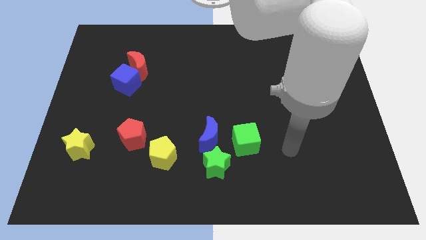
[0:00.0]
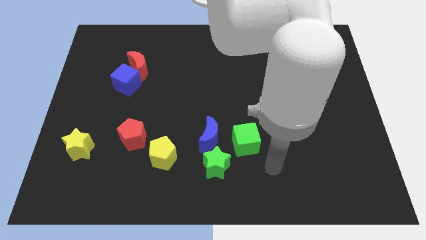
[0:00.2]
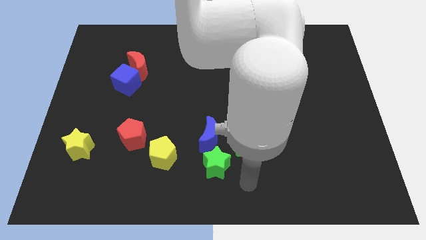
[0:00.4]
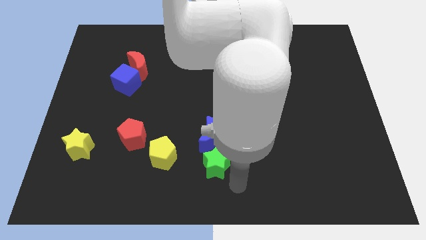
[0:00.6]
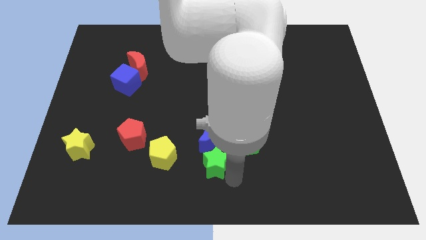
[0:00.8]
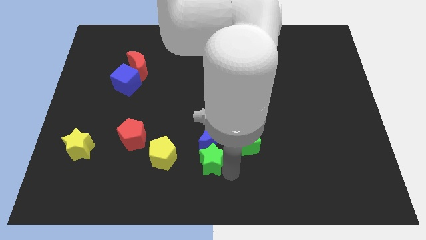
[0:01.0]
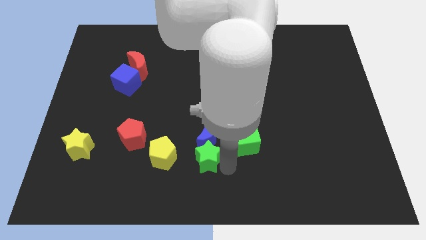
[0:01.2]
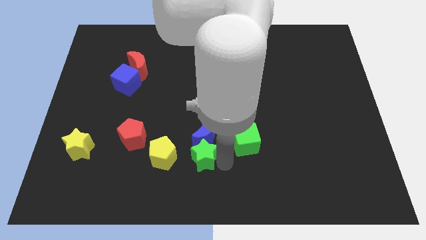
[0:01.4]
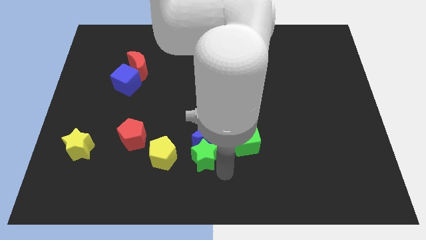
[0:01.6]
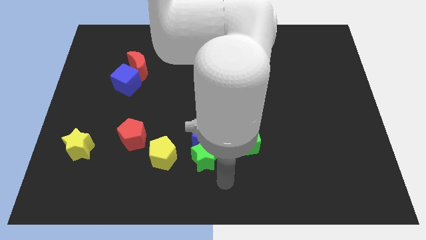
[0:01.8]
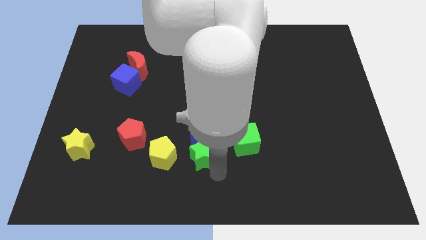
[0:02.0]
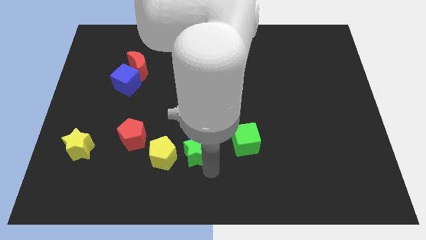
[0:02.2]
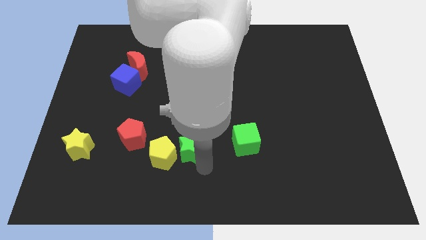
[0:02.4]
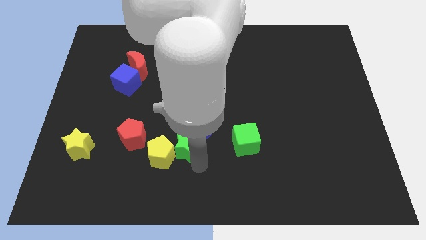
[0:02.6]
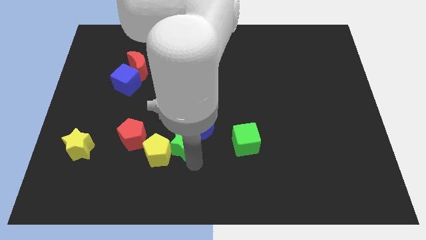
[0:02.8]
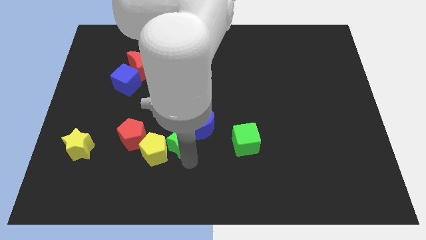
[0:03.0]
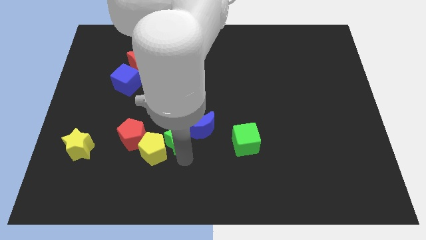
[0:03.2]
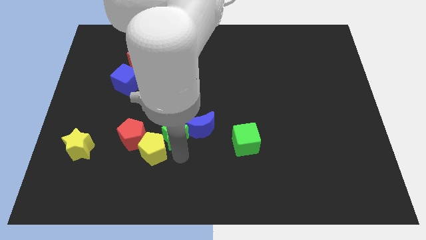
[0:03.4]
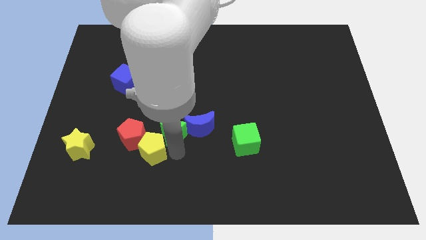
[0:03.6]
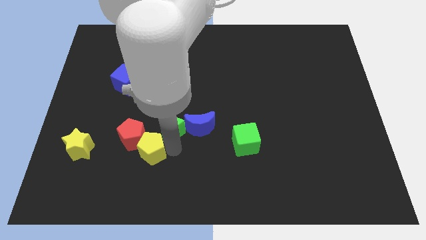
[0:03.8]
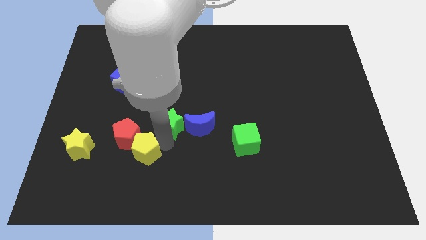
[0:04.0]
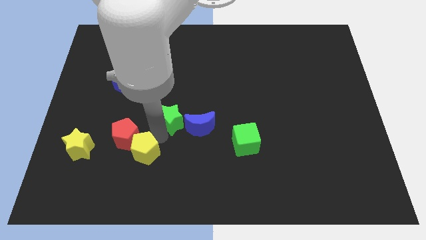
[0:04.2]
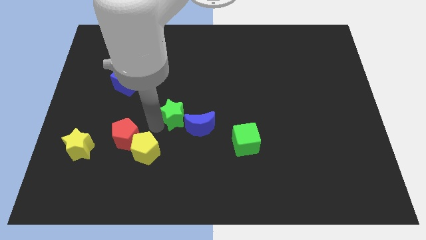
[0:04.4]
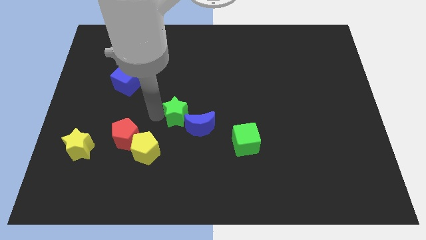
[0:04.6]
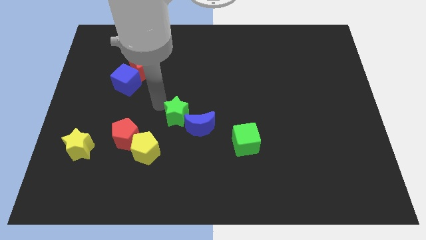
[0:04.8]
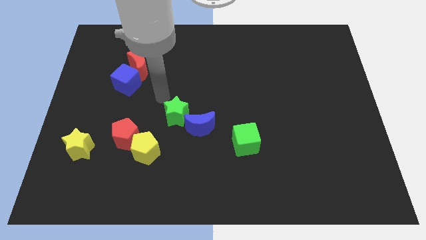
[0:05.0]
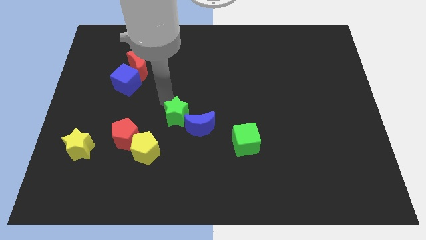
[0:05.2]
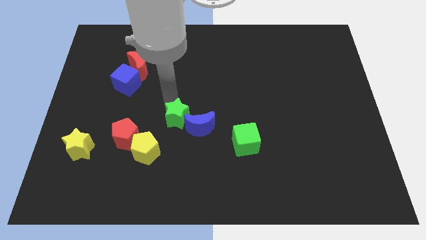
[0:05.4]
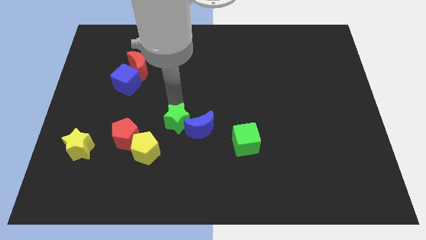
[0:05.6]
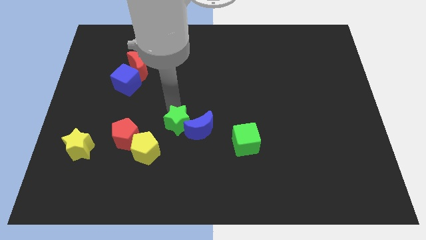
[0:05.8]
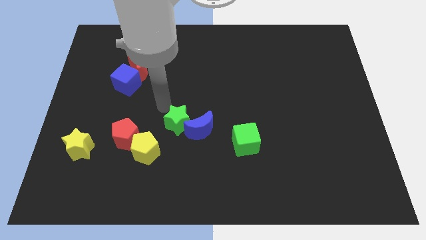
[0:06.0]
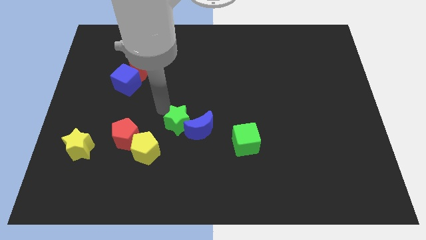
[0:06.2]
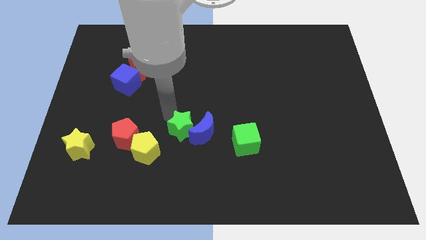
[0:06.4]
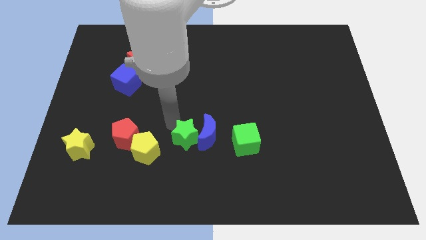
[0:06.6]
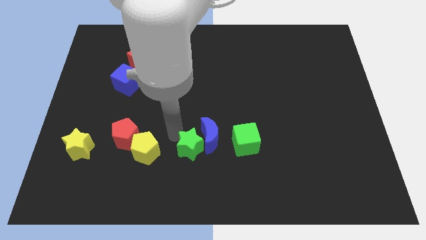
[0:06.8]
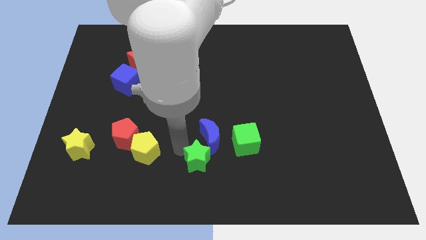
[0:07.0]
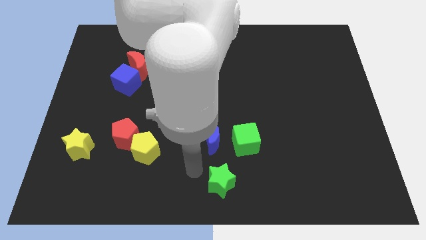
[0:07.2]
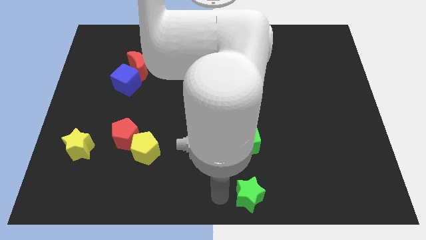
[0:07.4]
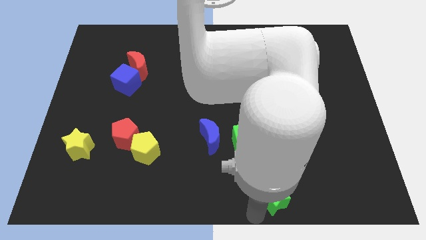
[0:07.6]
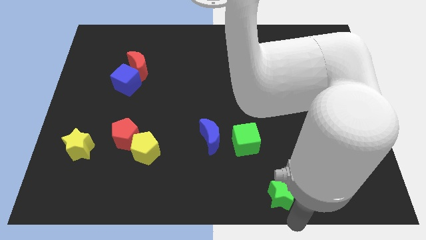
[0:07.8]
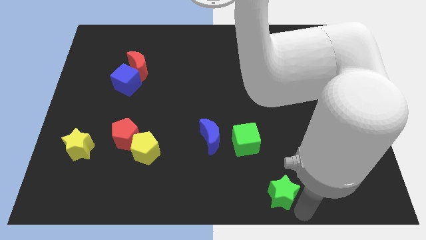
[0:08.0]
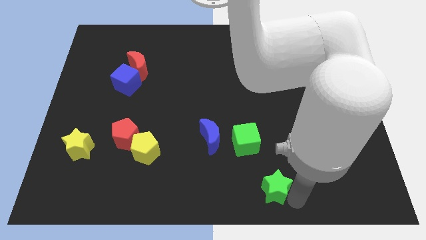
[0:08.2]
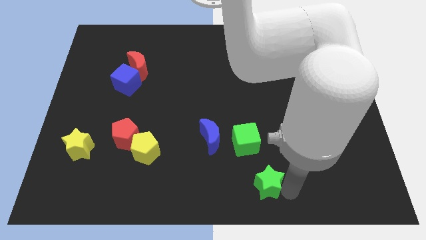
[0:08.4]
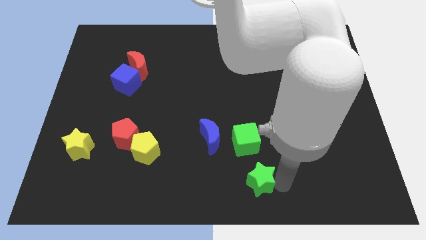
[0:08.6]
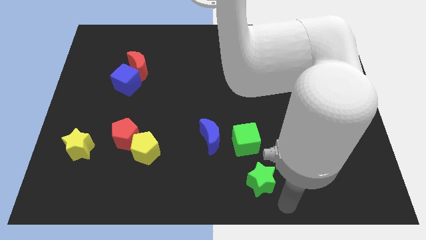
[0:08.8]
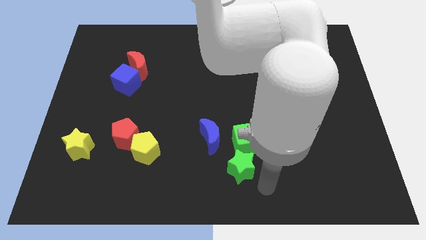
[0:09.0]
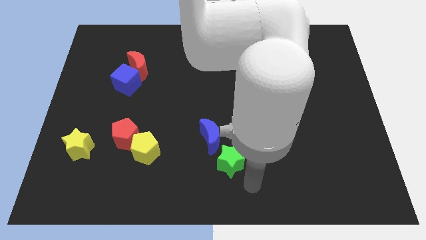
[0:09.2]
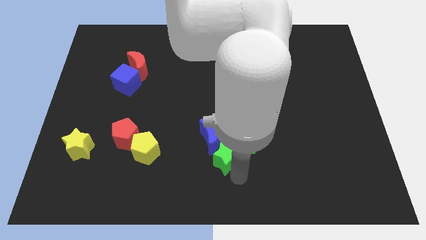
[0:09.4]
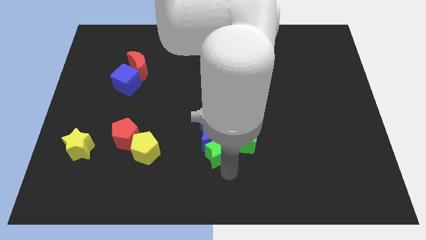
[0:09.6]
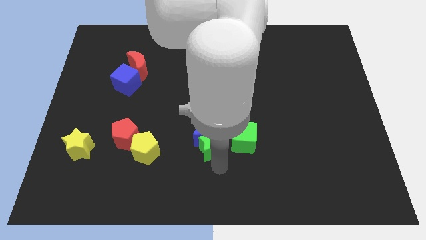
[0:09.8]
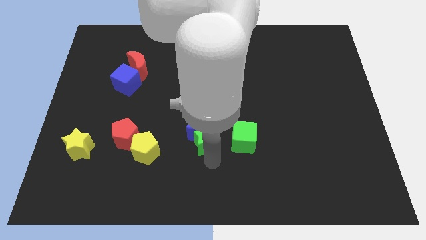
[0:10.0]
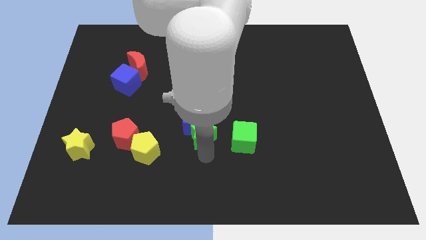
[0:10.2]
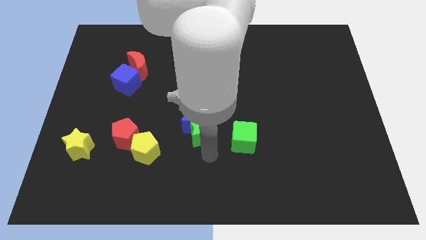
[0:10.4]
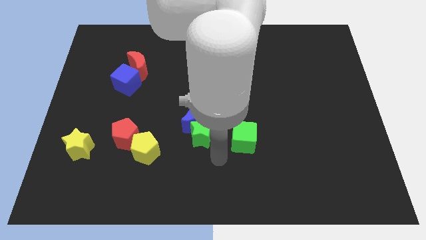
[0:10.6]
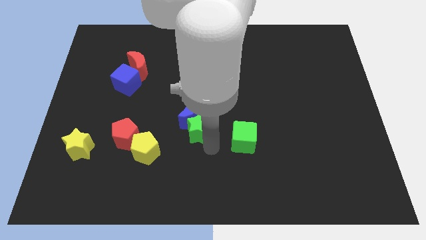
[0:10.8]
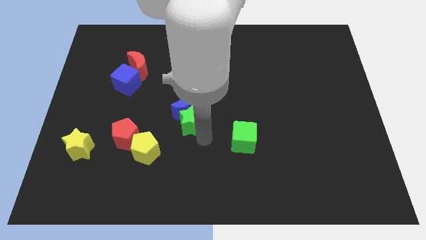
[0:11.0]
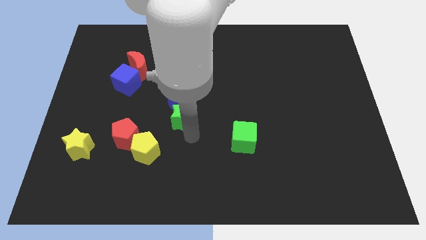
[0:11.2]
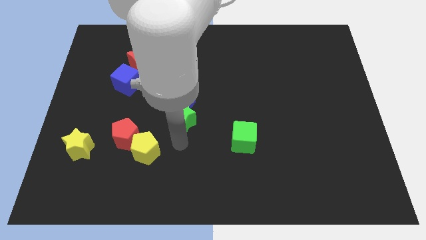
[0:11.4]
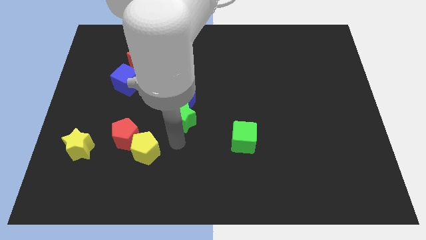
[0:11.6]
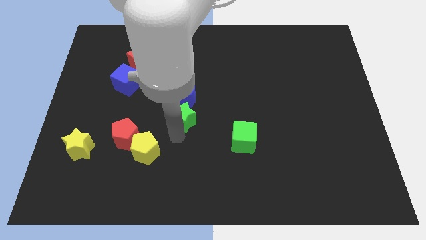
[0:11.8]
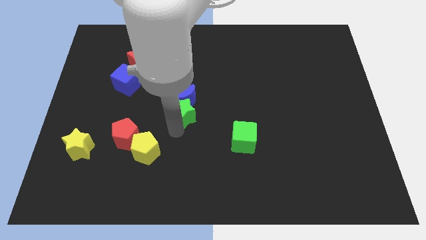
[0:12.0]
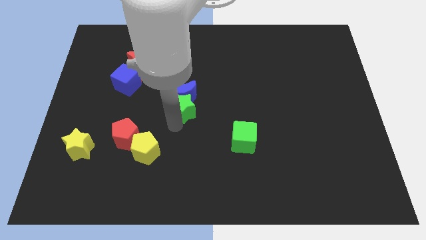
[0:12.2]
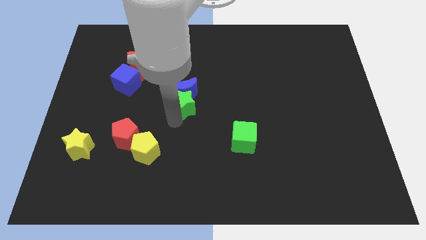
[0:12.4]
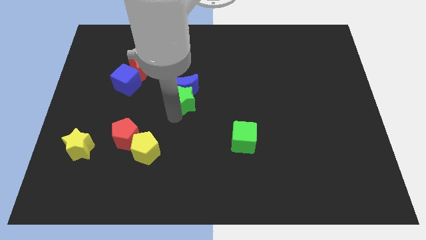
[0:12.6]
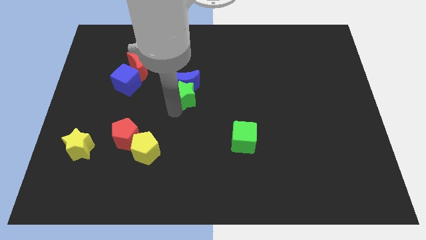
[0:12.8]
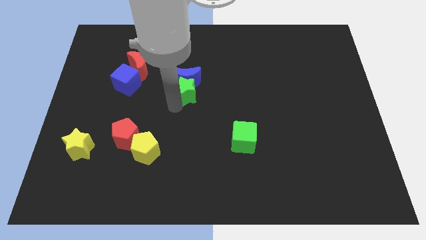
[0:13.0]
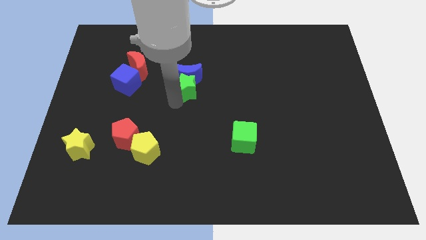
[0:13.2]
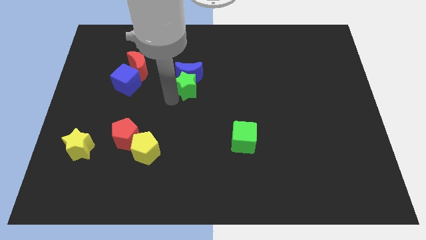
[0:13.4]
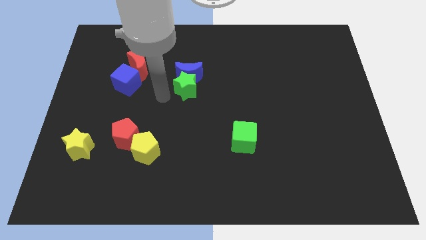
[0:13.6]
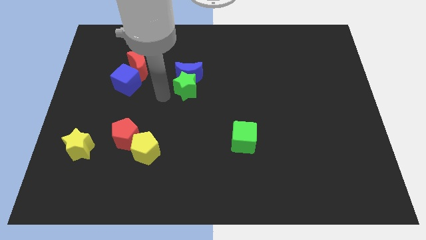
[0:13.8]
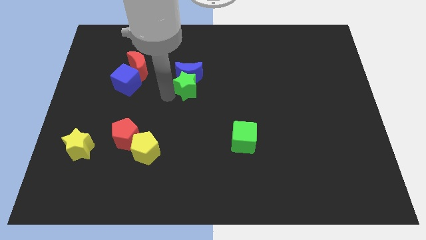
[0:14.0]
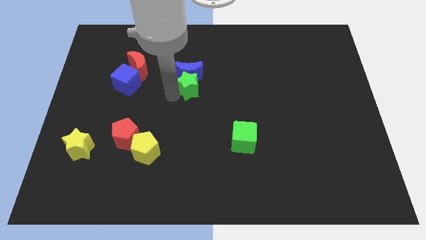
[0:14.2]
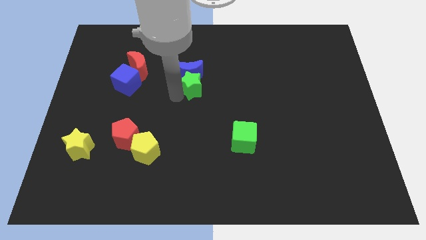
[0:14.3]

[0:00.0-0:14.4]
slide the green star upwards

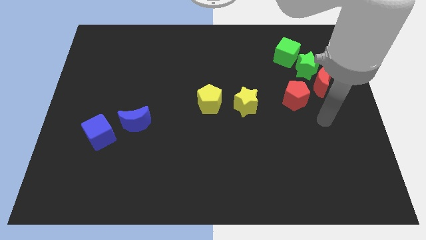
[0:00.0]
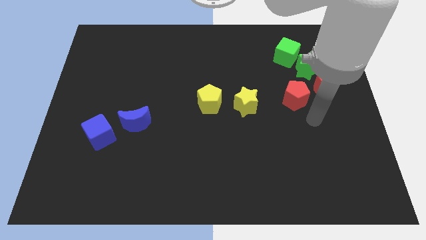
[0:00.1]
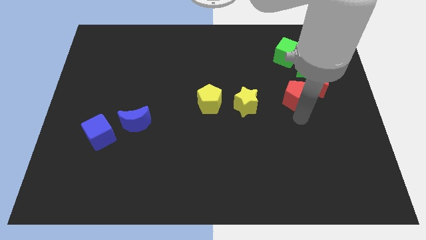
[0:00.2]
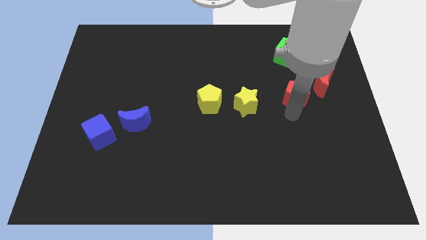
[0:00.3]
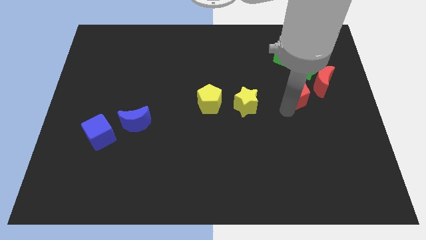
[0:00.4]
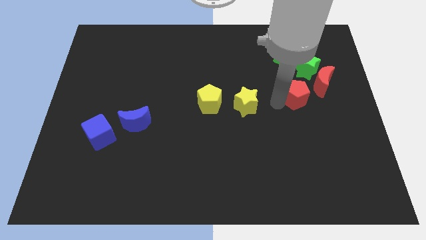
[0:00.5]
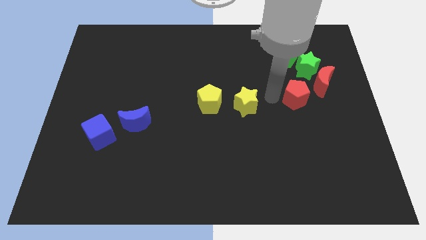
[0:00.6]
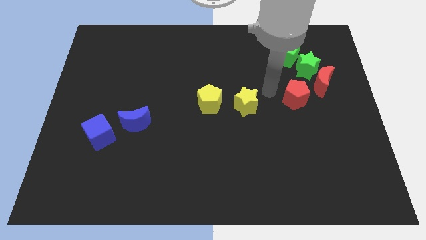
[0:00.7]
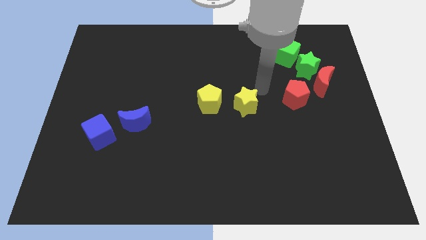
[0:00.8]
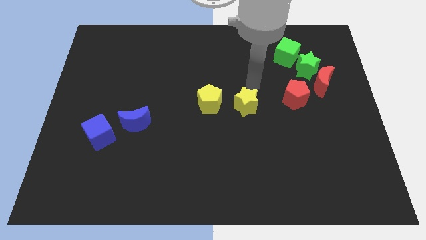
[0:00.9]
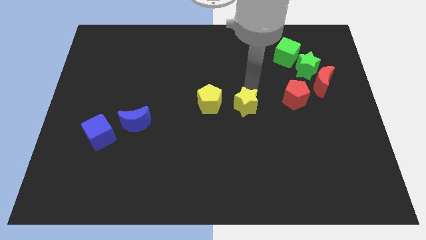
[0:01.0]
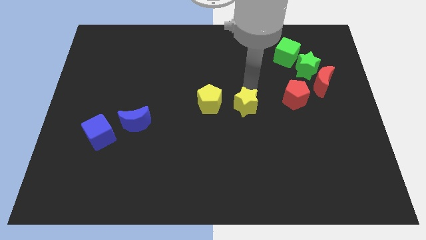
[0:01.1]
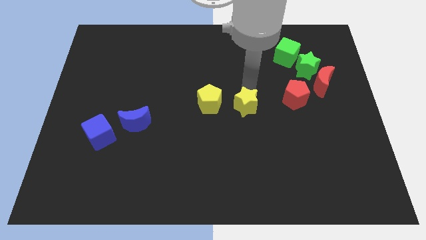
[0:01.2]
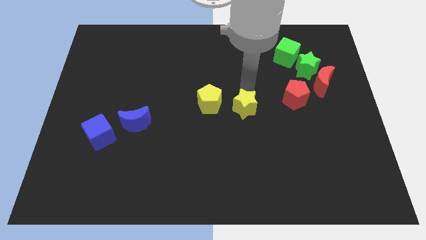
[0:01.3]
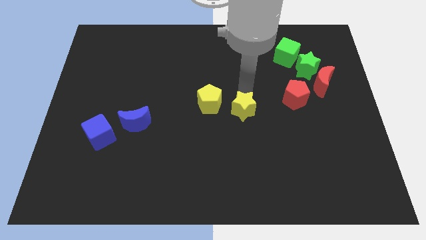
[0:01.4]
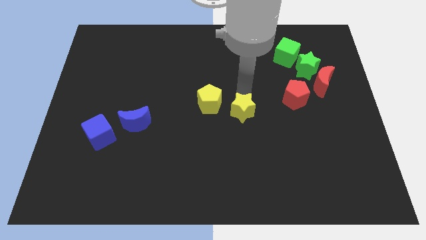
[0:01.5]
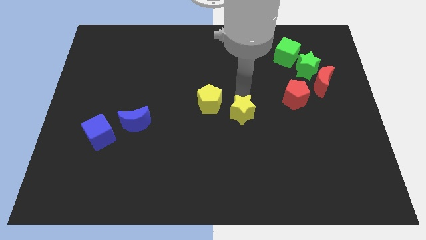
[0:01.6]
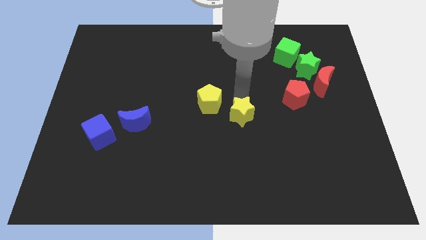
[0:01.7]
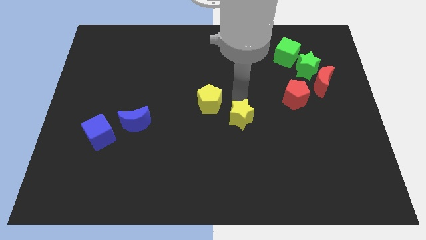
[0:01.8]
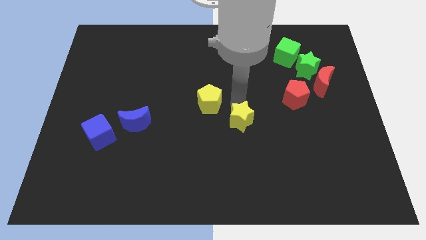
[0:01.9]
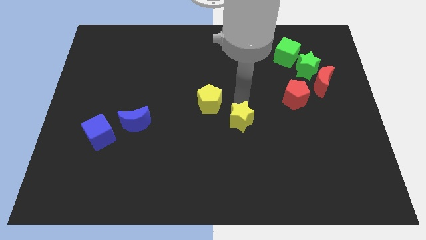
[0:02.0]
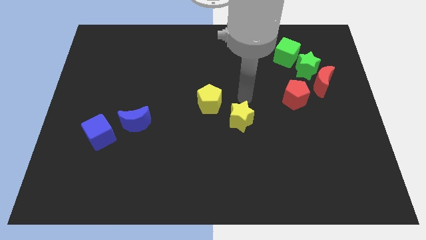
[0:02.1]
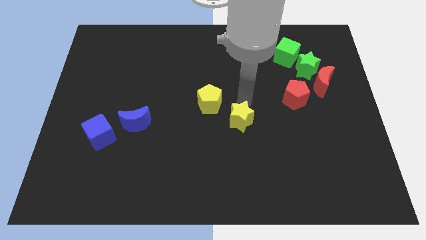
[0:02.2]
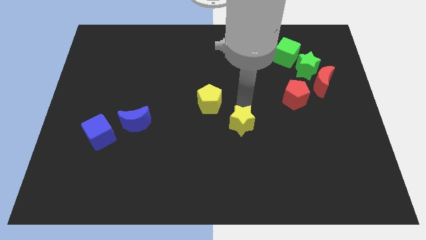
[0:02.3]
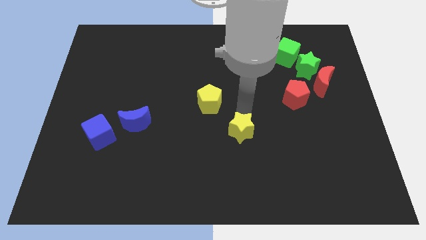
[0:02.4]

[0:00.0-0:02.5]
slightly push the yellow star downwards
